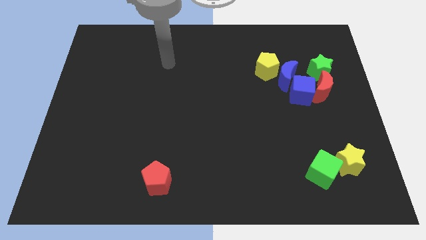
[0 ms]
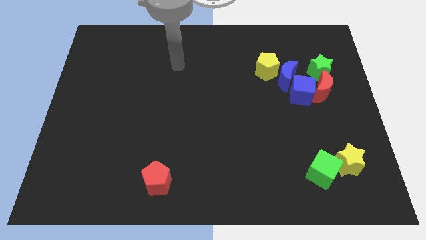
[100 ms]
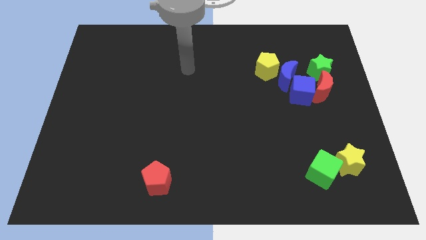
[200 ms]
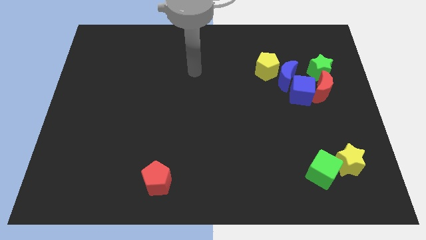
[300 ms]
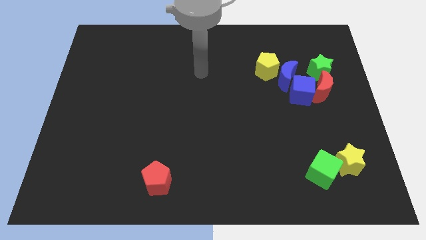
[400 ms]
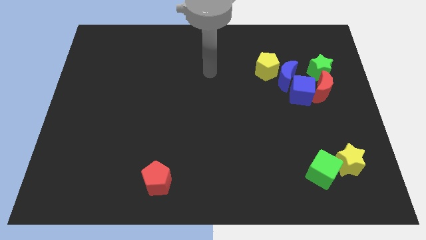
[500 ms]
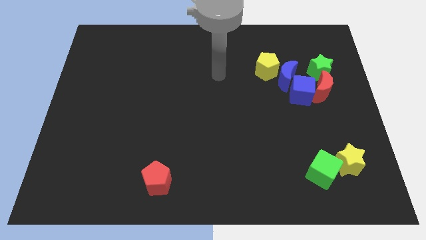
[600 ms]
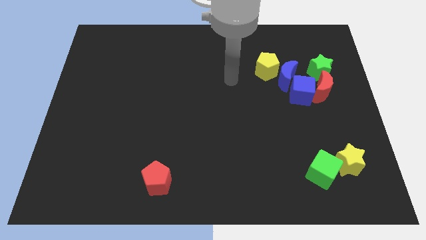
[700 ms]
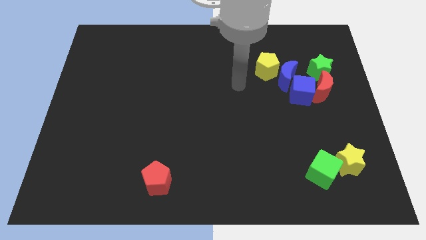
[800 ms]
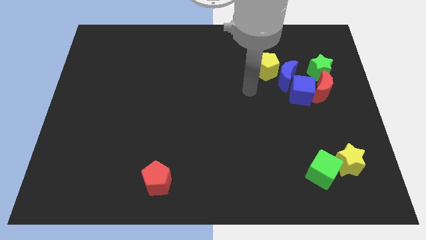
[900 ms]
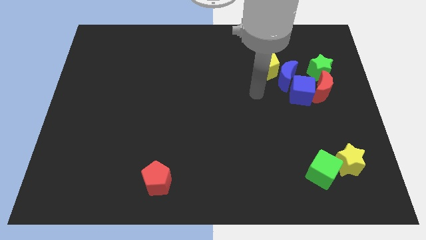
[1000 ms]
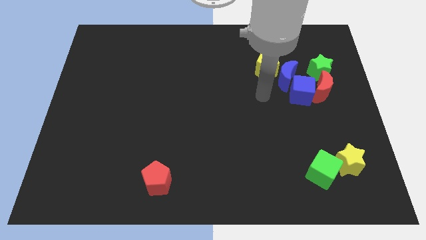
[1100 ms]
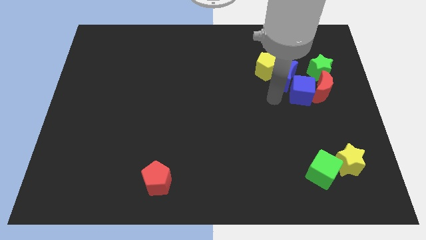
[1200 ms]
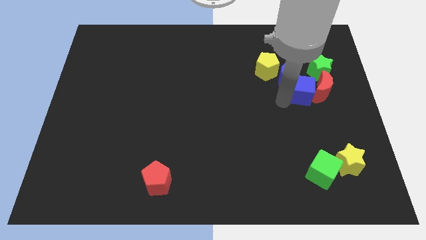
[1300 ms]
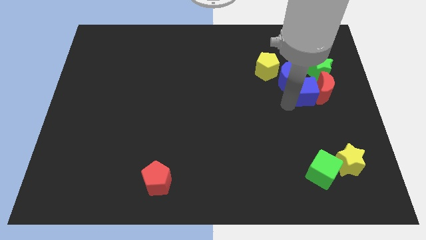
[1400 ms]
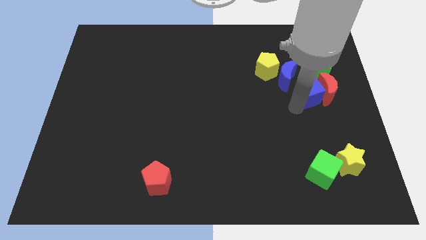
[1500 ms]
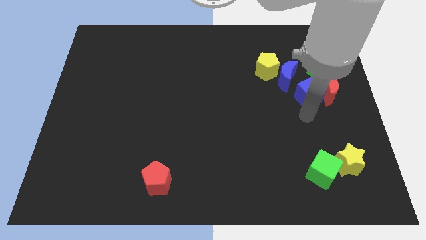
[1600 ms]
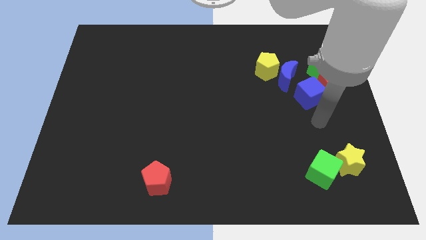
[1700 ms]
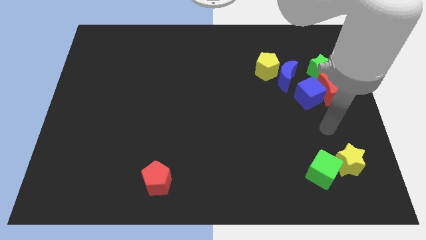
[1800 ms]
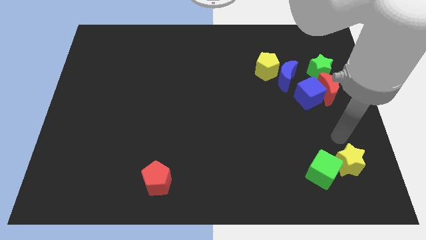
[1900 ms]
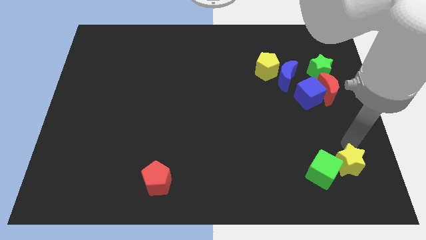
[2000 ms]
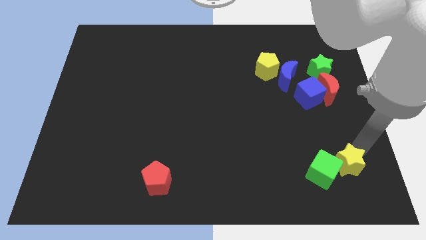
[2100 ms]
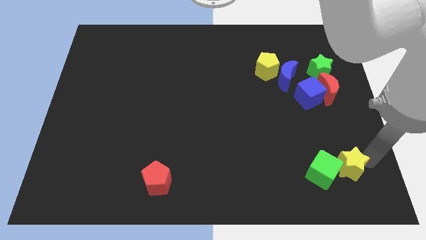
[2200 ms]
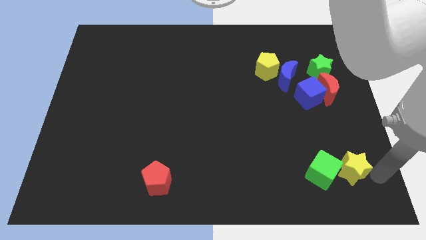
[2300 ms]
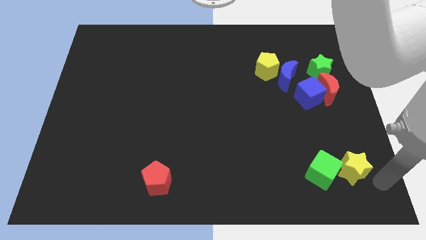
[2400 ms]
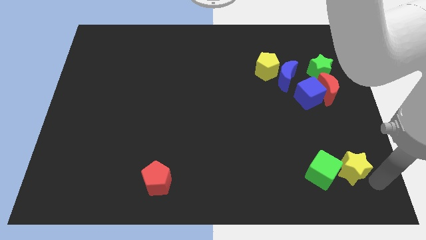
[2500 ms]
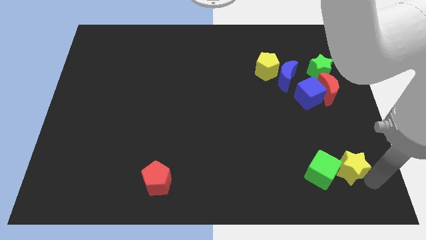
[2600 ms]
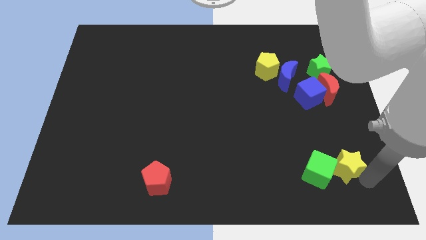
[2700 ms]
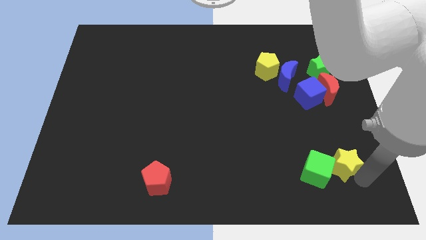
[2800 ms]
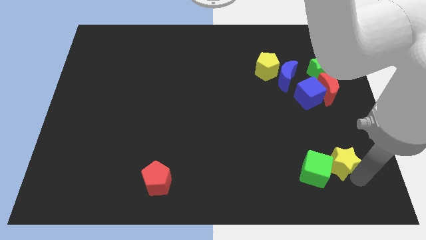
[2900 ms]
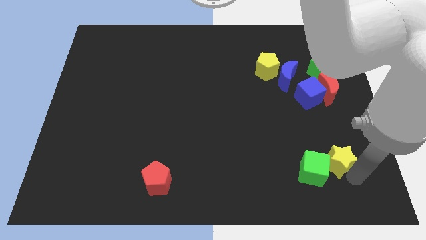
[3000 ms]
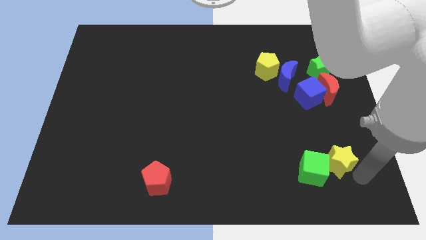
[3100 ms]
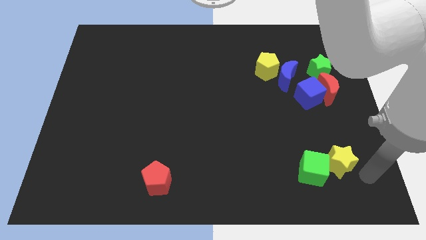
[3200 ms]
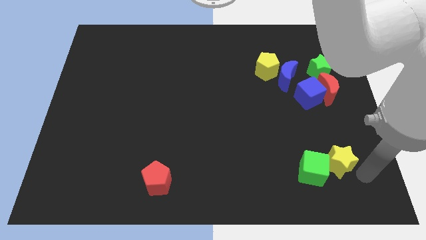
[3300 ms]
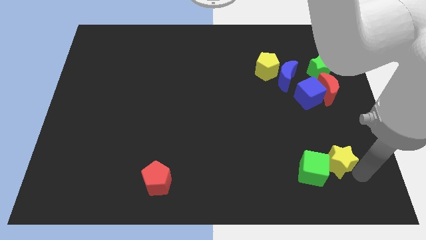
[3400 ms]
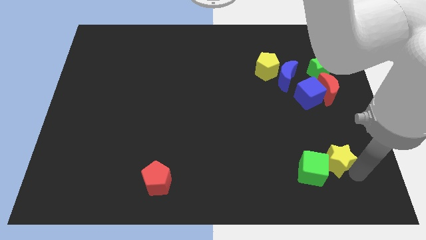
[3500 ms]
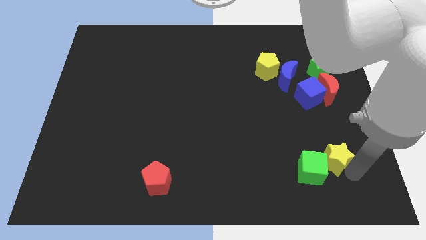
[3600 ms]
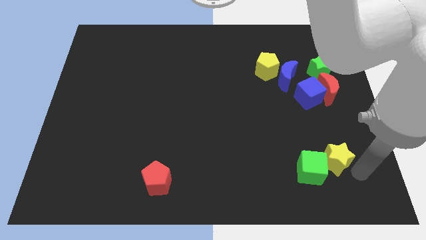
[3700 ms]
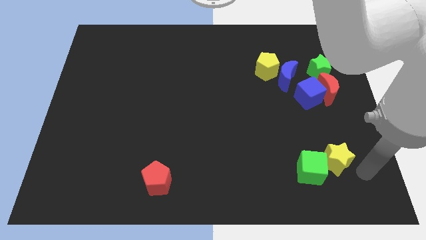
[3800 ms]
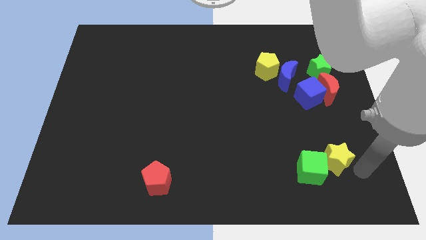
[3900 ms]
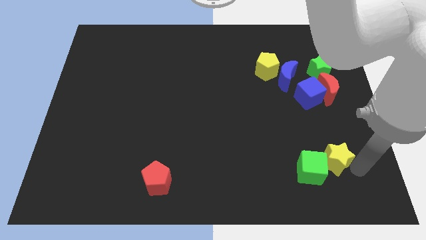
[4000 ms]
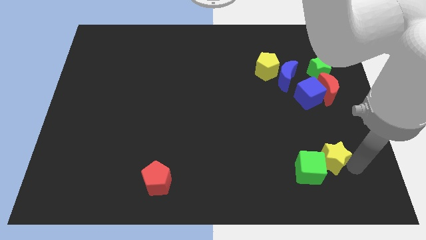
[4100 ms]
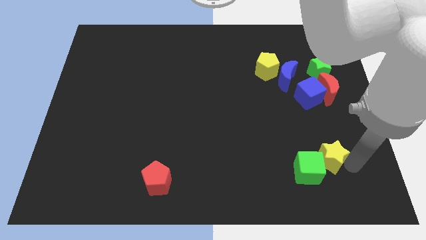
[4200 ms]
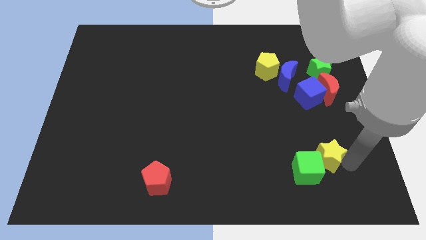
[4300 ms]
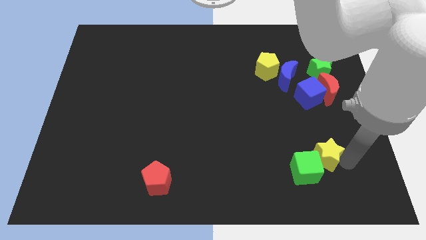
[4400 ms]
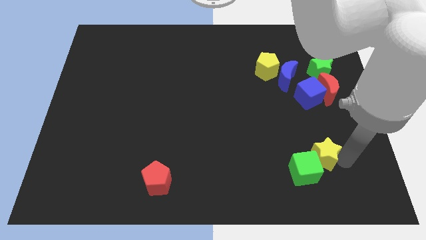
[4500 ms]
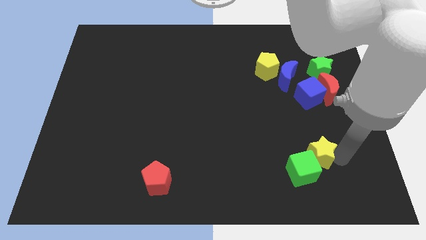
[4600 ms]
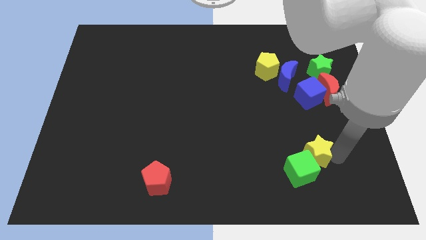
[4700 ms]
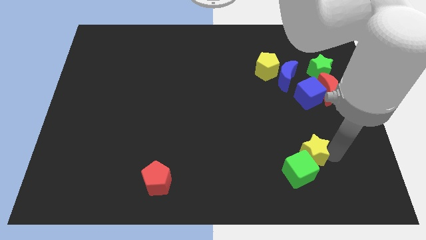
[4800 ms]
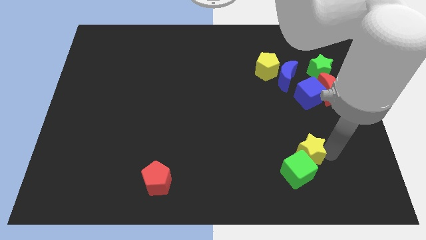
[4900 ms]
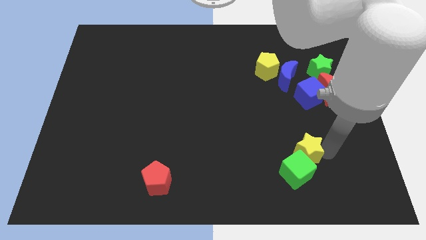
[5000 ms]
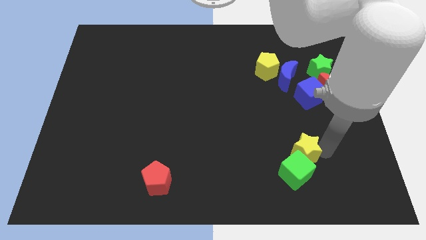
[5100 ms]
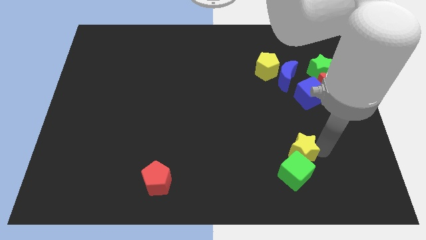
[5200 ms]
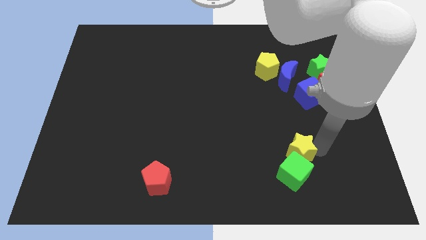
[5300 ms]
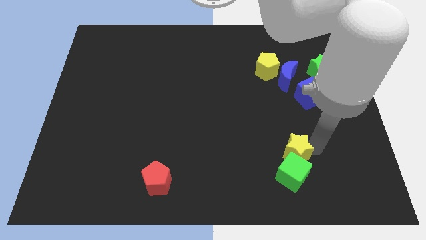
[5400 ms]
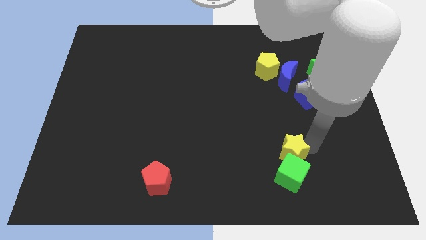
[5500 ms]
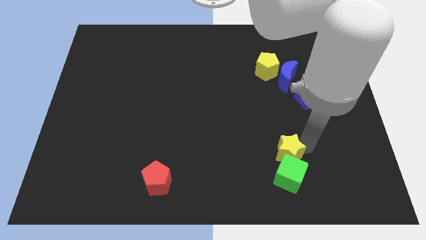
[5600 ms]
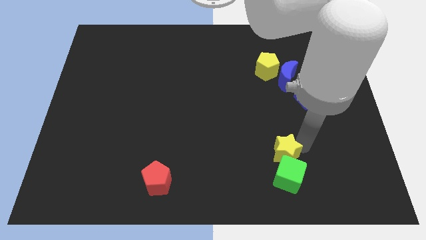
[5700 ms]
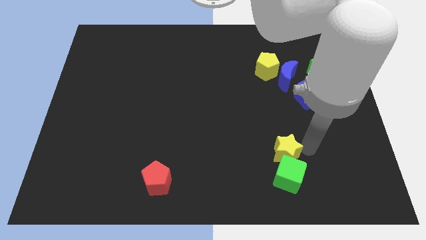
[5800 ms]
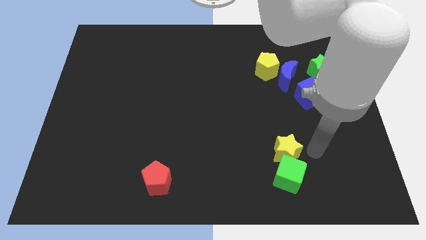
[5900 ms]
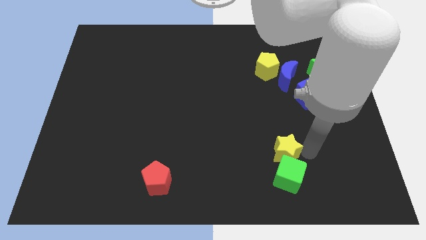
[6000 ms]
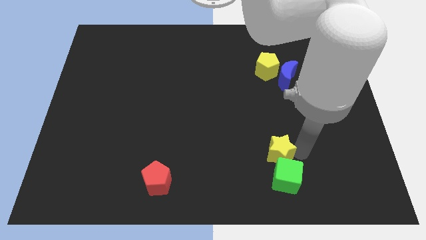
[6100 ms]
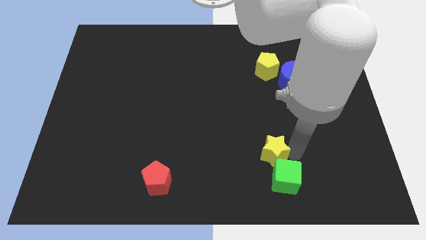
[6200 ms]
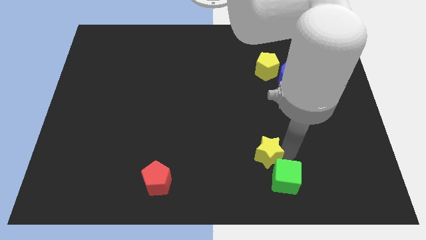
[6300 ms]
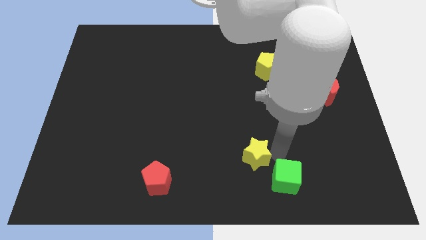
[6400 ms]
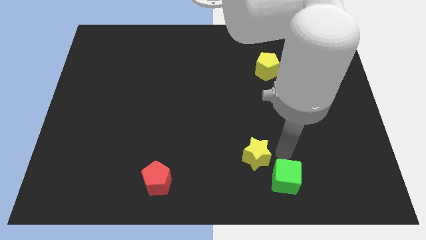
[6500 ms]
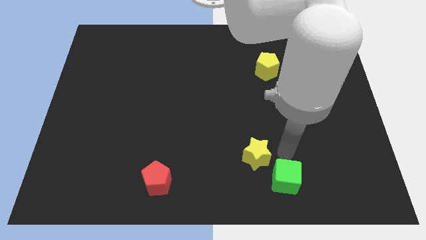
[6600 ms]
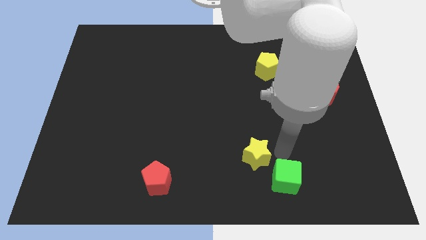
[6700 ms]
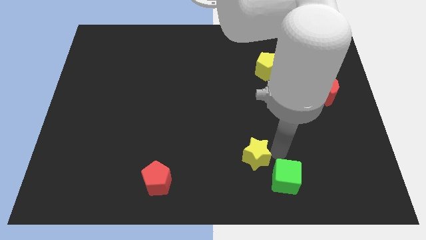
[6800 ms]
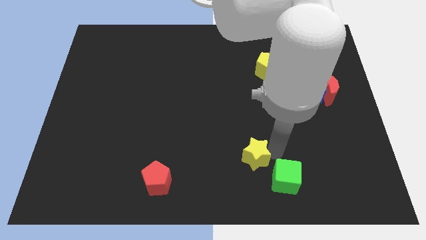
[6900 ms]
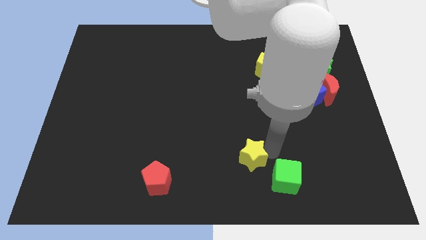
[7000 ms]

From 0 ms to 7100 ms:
move the yellow star left

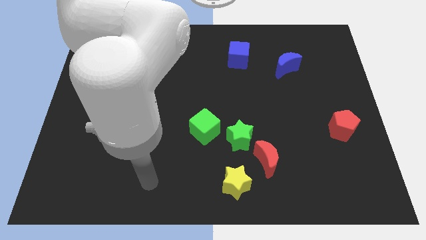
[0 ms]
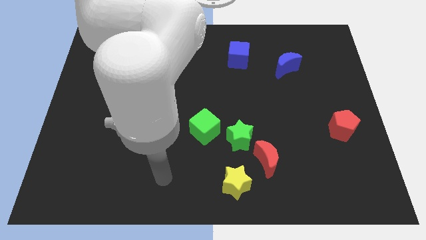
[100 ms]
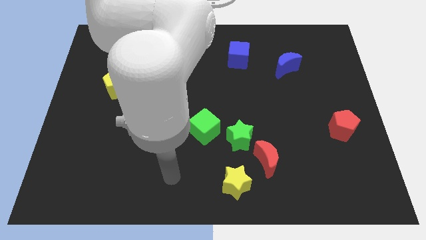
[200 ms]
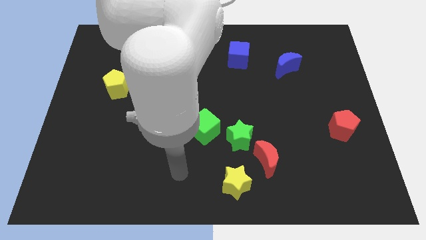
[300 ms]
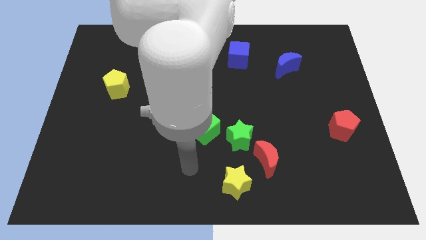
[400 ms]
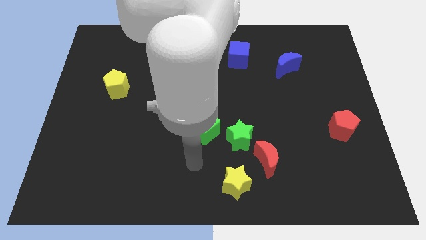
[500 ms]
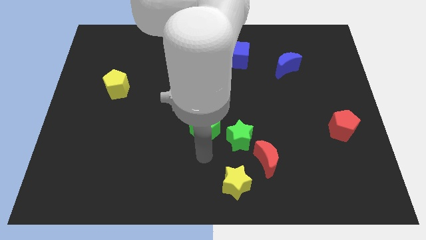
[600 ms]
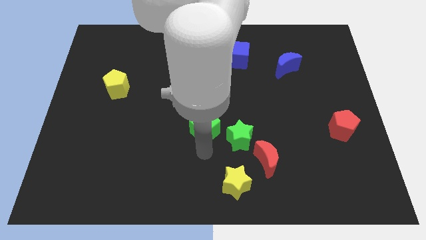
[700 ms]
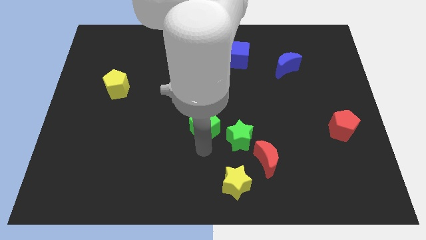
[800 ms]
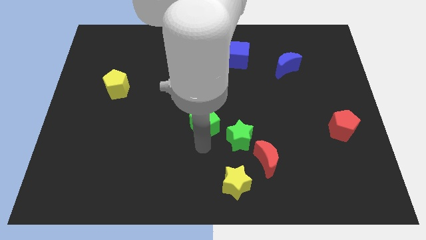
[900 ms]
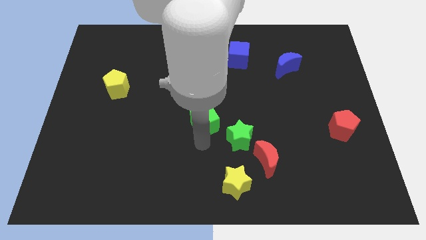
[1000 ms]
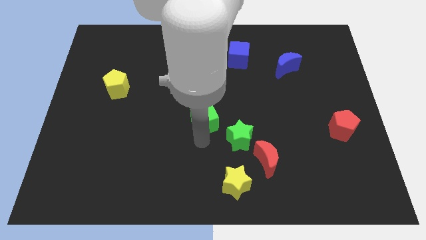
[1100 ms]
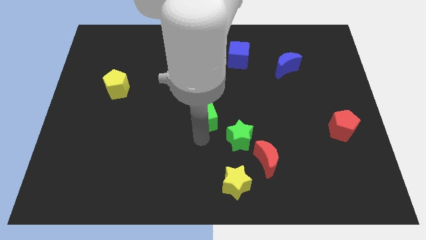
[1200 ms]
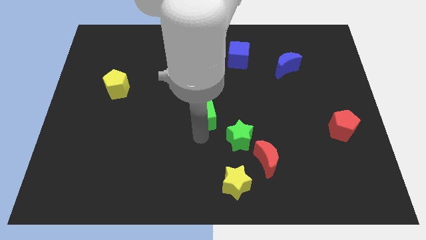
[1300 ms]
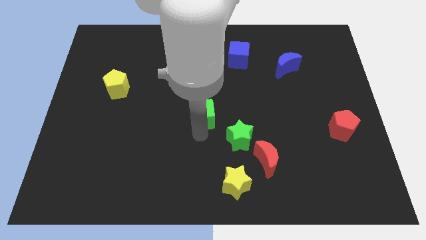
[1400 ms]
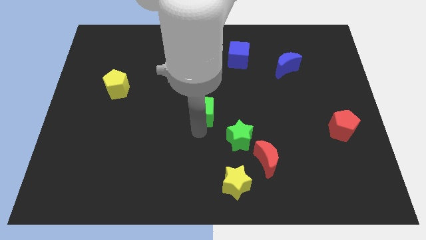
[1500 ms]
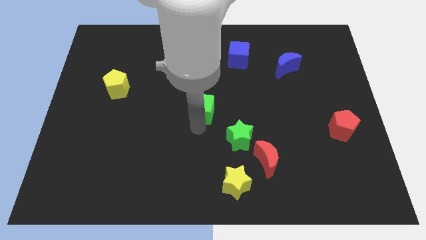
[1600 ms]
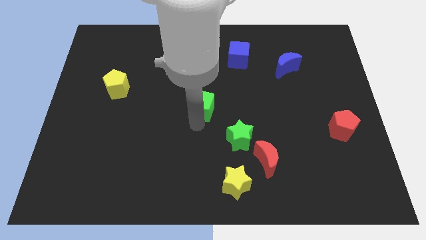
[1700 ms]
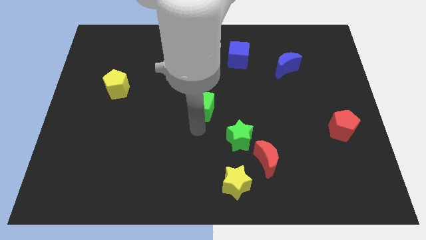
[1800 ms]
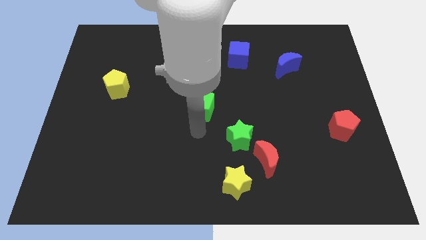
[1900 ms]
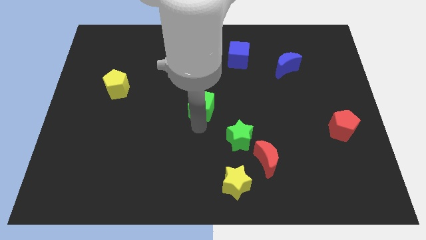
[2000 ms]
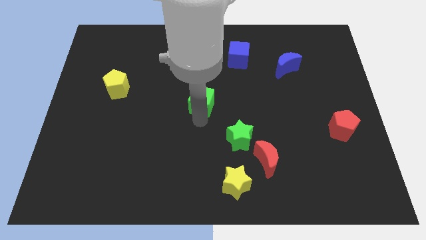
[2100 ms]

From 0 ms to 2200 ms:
slightly push the green cube up
